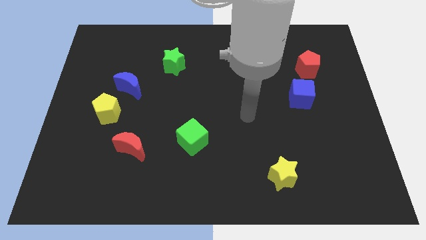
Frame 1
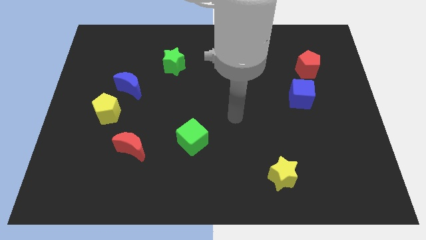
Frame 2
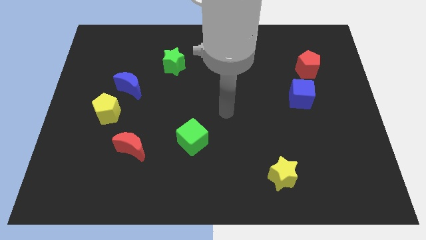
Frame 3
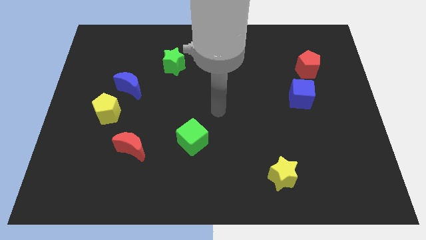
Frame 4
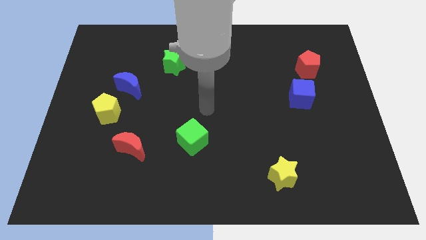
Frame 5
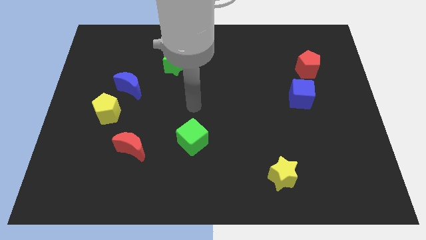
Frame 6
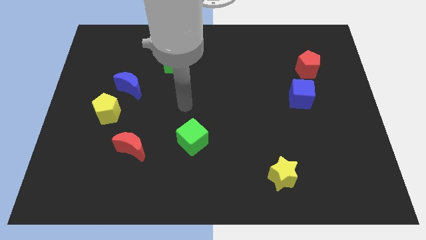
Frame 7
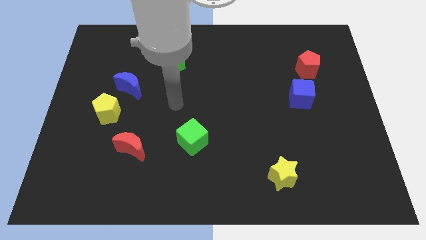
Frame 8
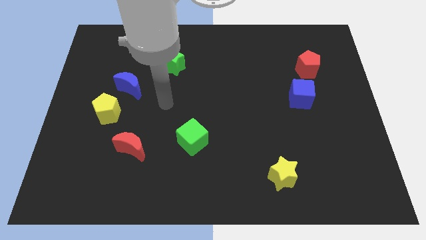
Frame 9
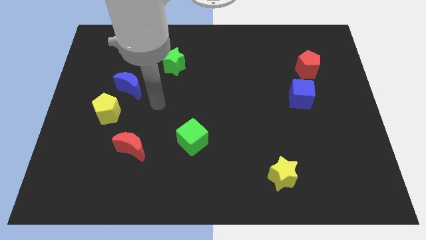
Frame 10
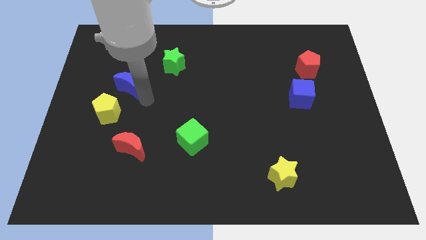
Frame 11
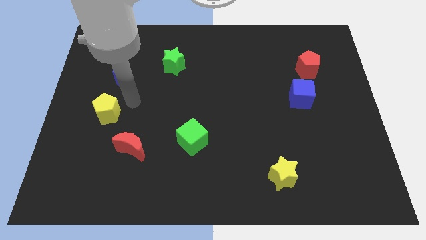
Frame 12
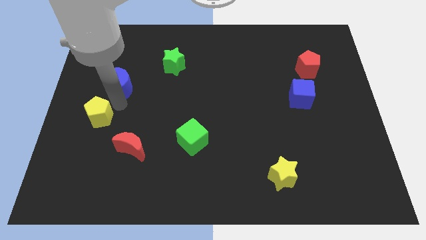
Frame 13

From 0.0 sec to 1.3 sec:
move the blue moon away from the yellow pentagon

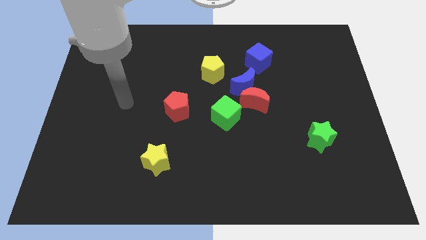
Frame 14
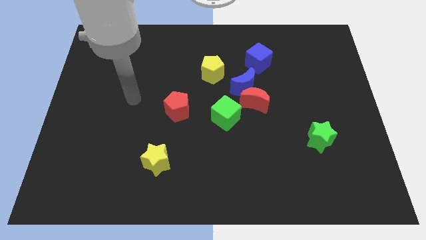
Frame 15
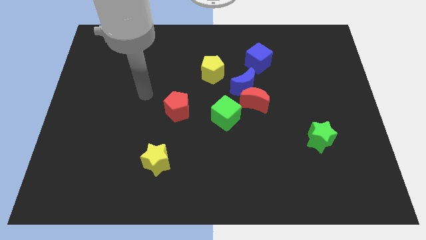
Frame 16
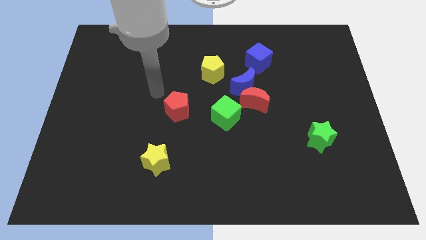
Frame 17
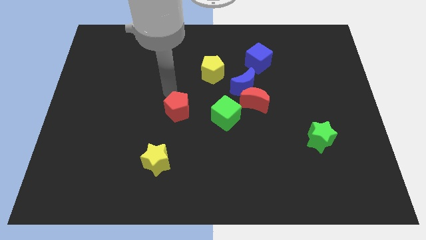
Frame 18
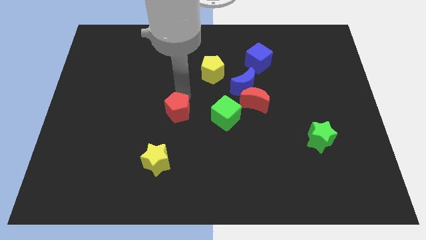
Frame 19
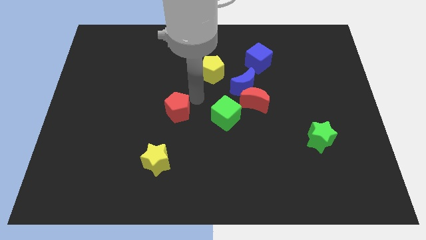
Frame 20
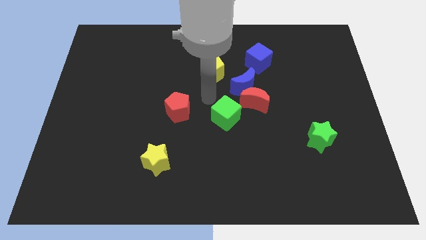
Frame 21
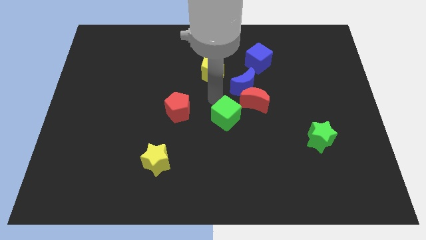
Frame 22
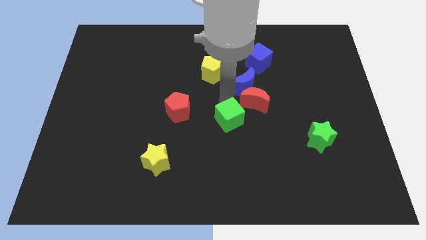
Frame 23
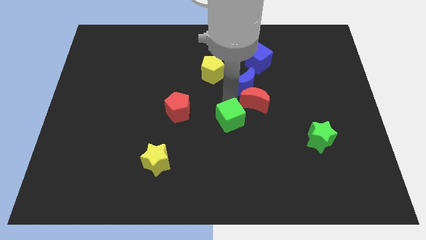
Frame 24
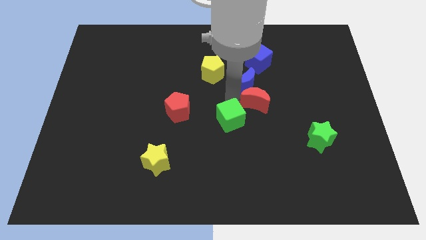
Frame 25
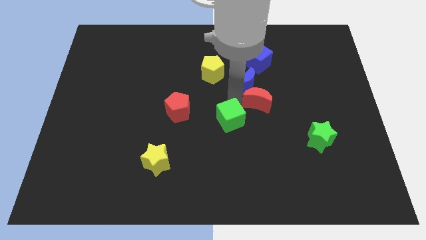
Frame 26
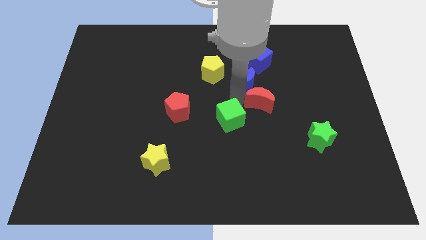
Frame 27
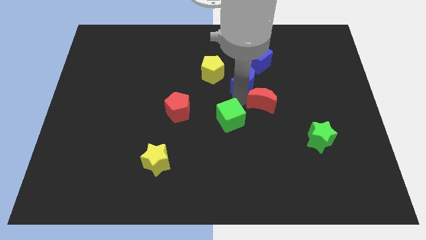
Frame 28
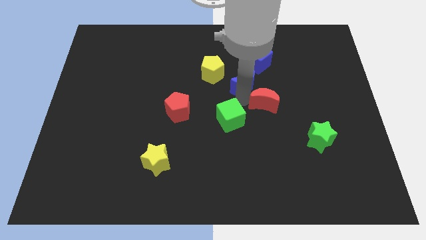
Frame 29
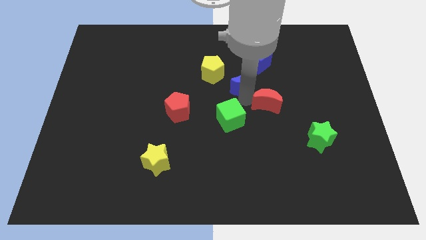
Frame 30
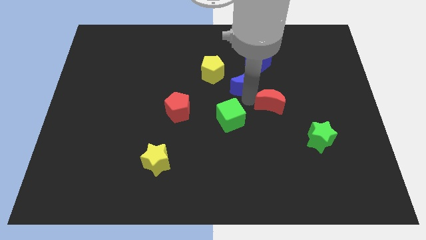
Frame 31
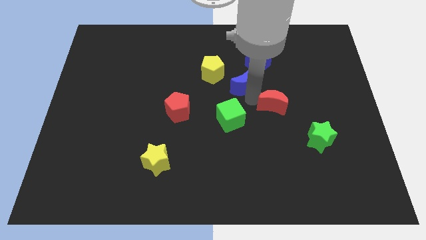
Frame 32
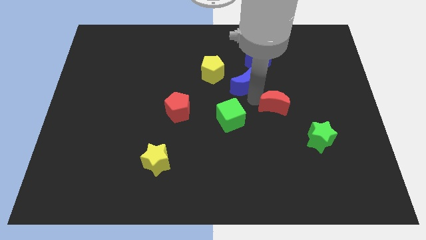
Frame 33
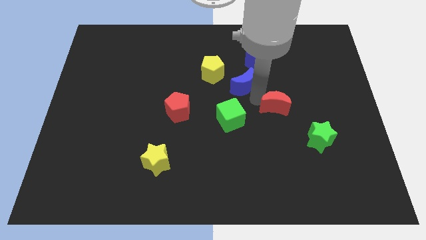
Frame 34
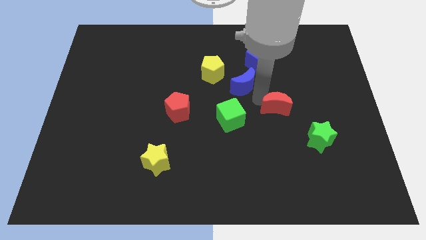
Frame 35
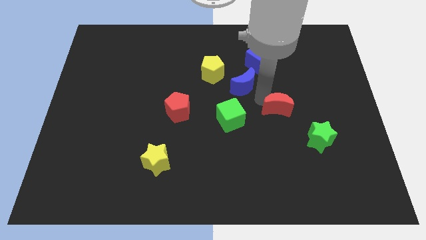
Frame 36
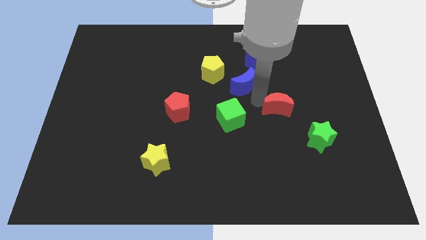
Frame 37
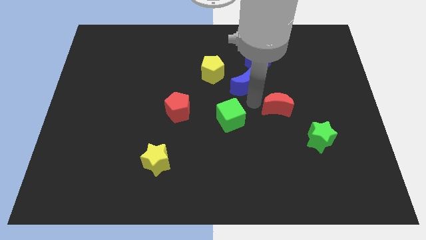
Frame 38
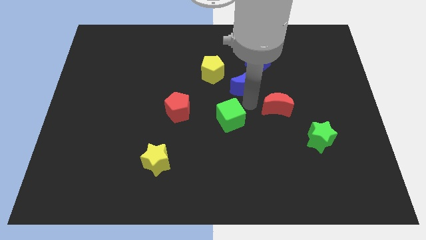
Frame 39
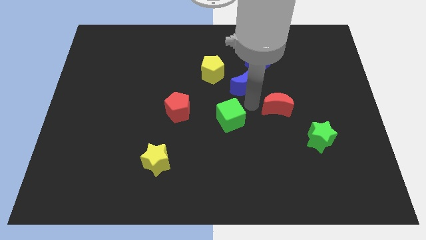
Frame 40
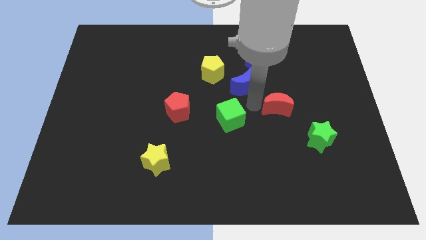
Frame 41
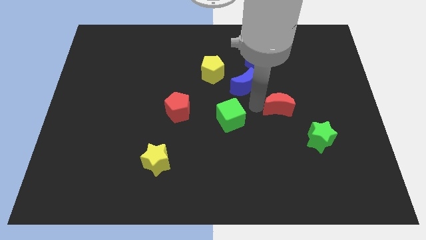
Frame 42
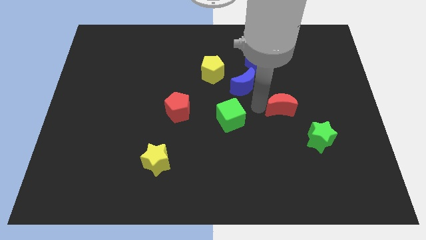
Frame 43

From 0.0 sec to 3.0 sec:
pull the red moon apart from the blue moon and green cube

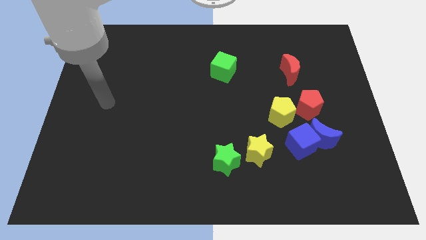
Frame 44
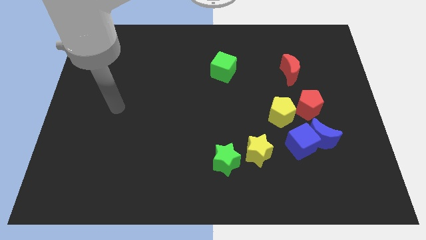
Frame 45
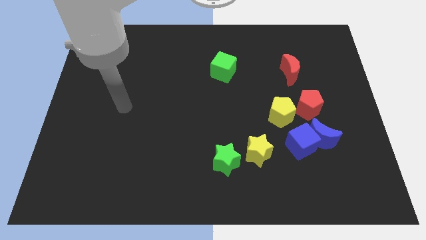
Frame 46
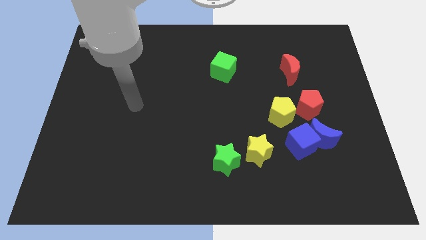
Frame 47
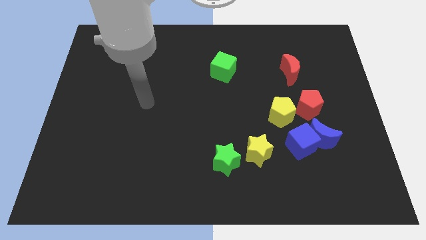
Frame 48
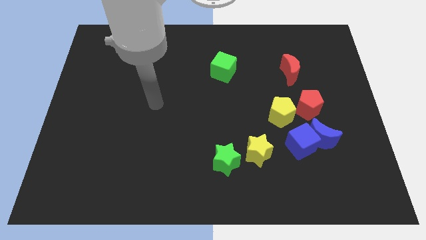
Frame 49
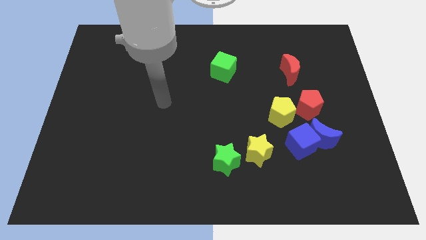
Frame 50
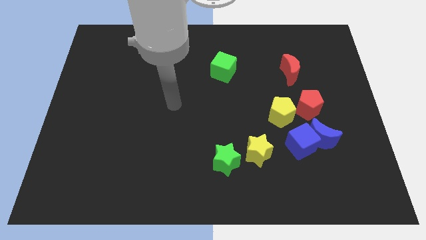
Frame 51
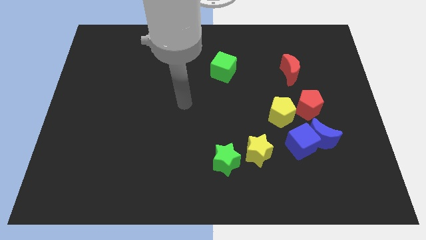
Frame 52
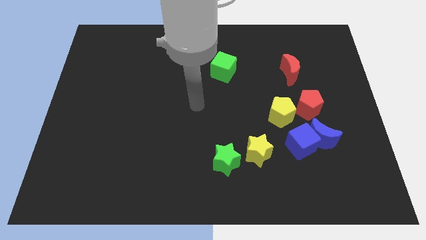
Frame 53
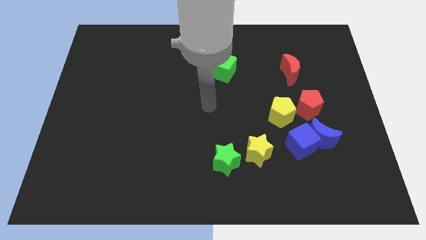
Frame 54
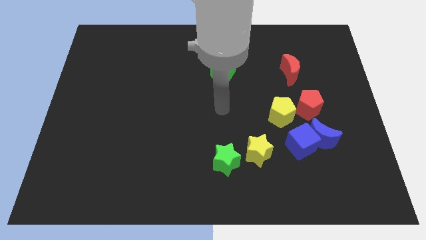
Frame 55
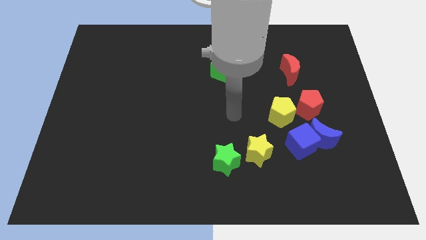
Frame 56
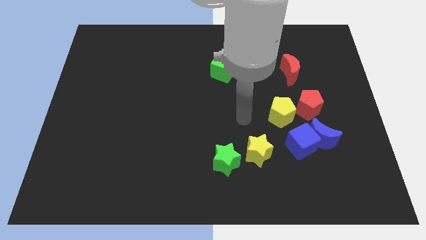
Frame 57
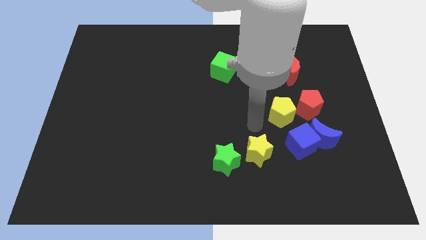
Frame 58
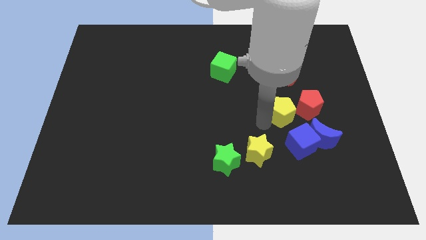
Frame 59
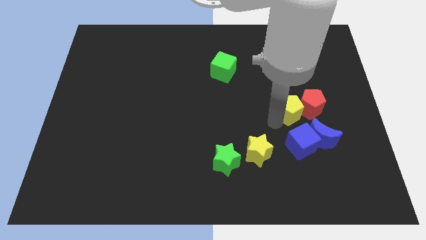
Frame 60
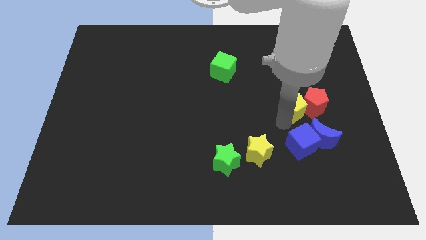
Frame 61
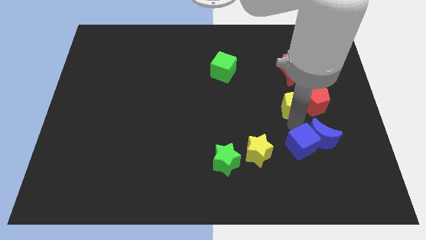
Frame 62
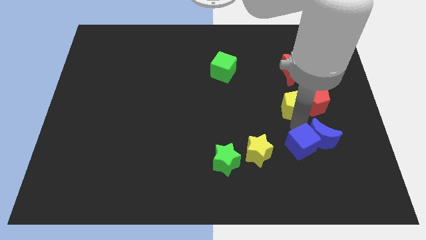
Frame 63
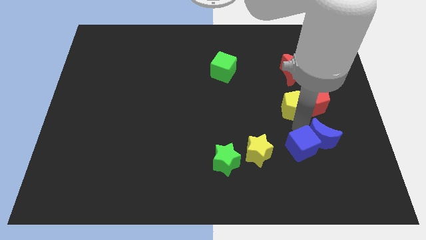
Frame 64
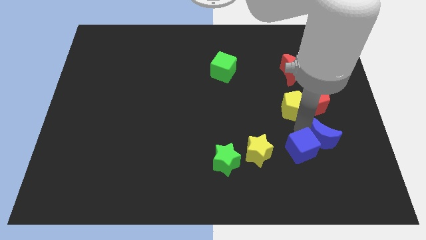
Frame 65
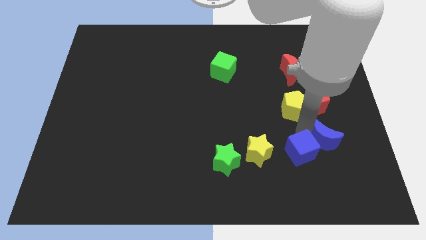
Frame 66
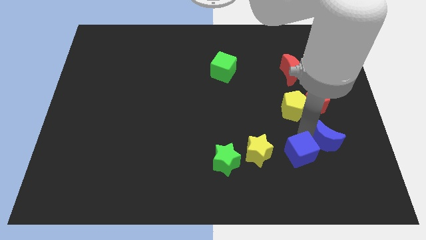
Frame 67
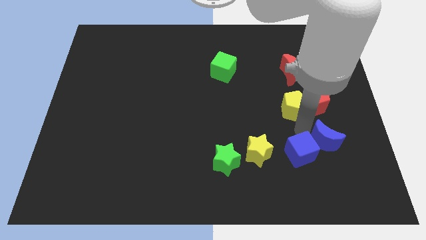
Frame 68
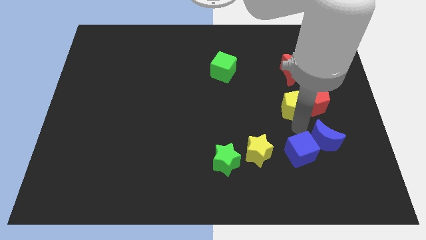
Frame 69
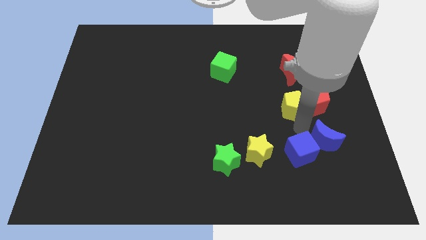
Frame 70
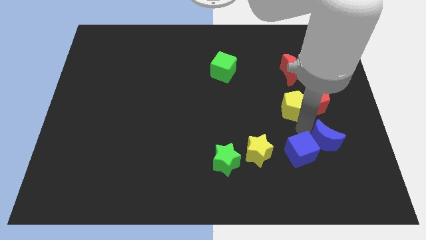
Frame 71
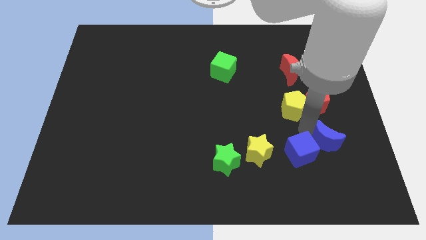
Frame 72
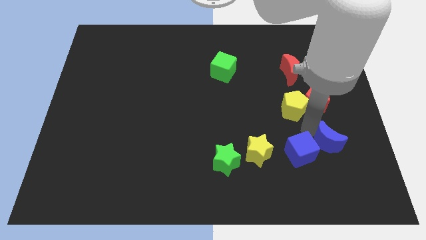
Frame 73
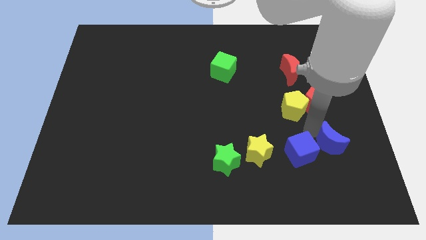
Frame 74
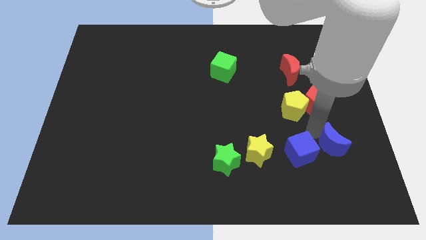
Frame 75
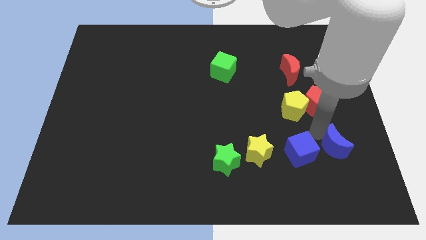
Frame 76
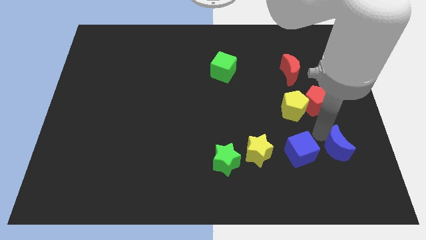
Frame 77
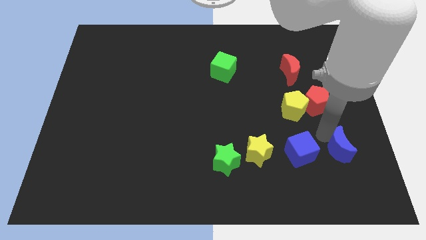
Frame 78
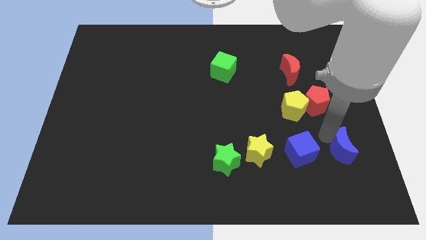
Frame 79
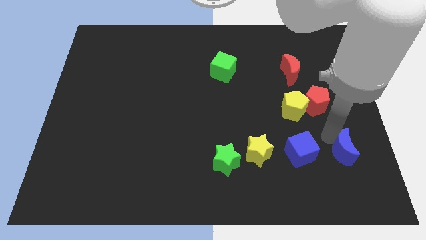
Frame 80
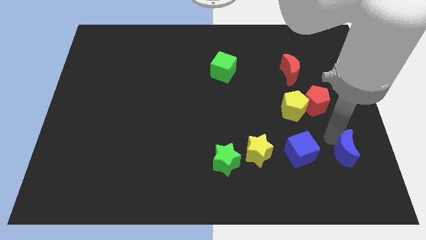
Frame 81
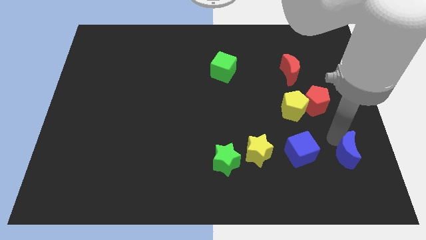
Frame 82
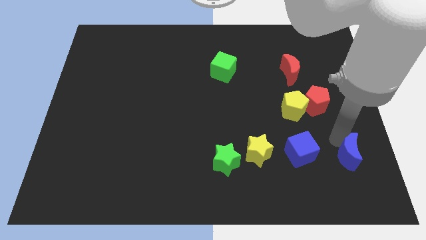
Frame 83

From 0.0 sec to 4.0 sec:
separate the blue moon from the blue cube and red pentagon

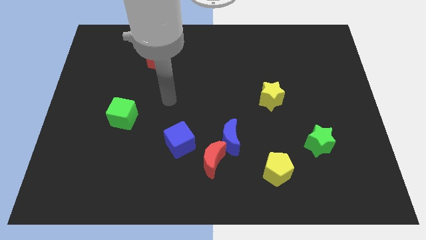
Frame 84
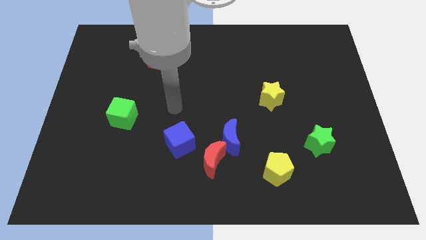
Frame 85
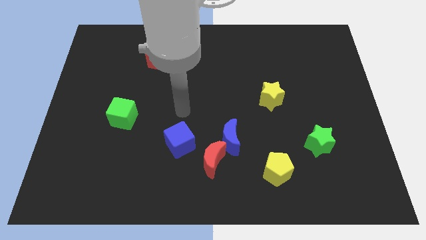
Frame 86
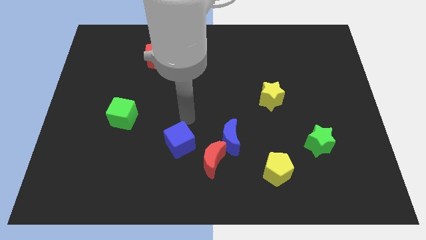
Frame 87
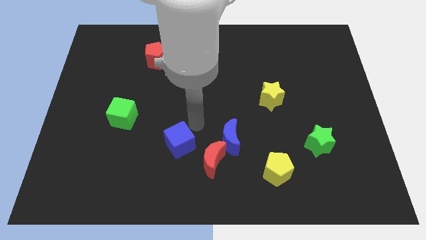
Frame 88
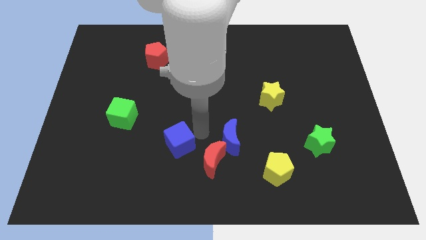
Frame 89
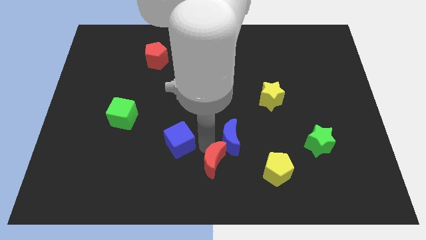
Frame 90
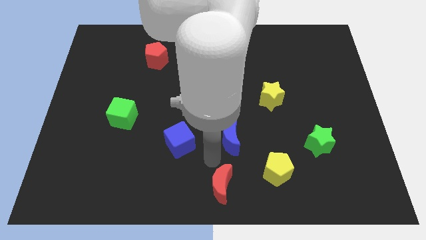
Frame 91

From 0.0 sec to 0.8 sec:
move the blue moon away from the red moon
